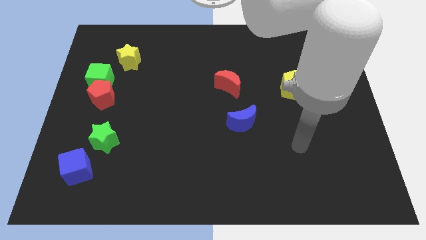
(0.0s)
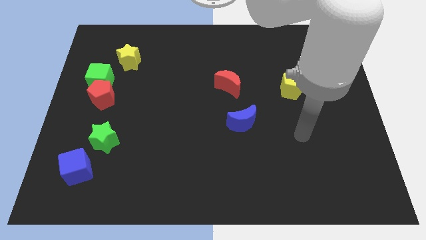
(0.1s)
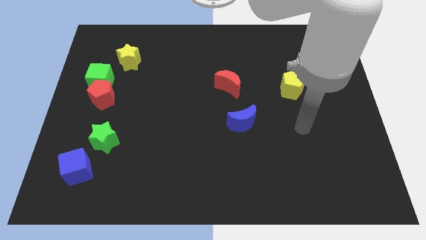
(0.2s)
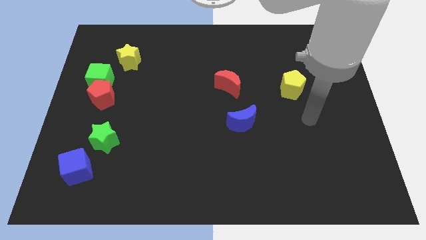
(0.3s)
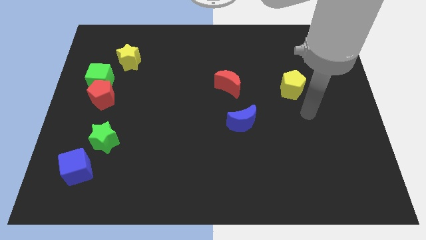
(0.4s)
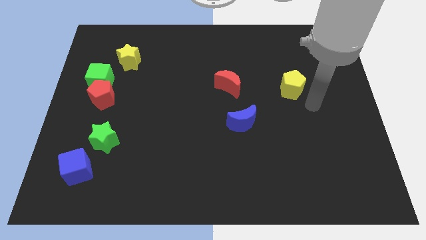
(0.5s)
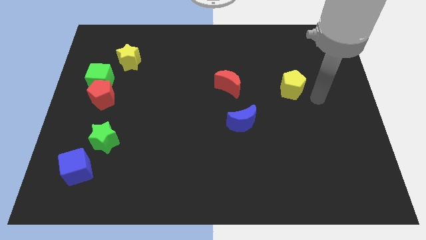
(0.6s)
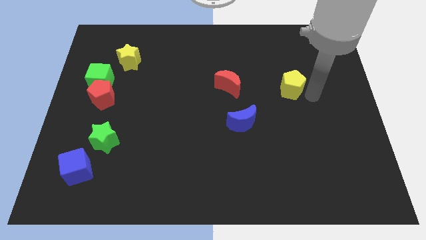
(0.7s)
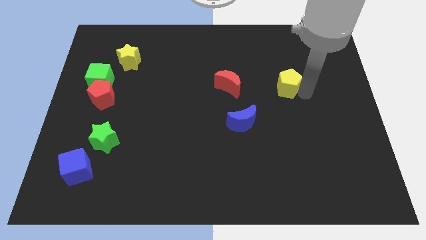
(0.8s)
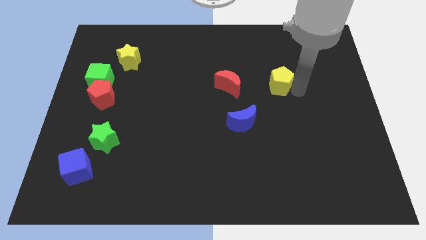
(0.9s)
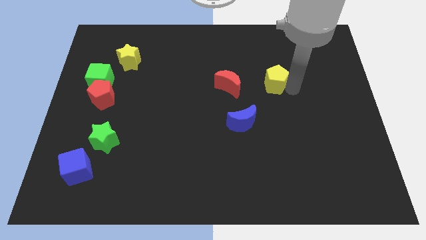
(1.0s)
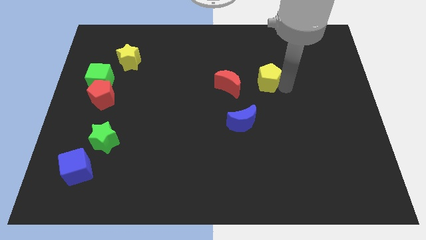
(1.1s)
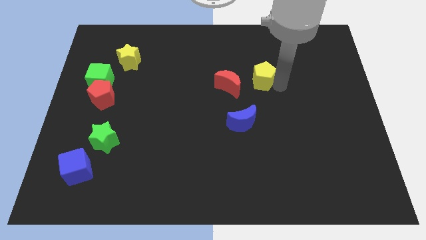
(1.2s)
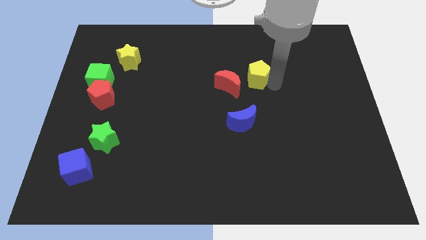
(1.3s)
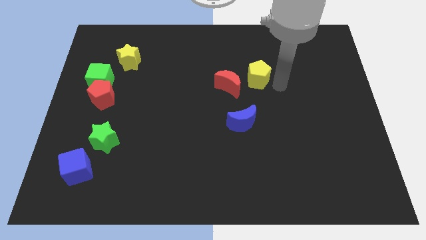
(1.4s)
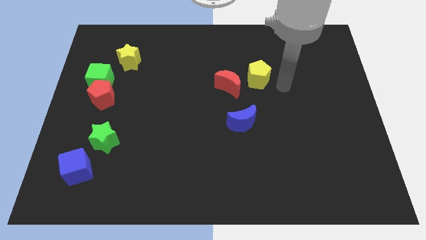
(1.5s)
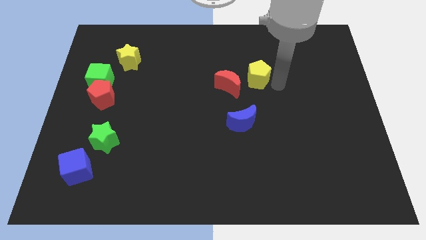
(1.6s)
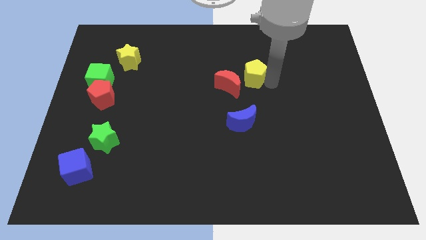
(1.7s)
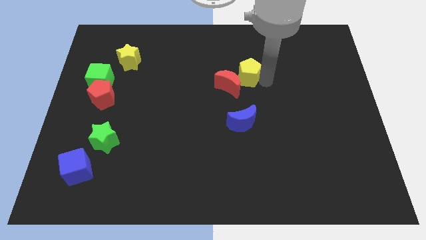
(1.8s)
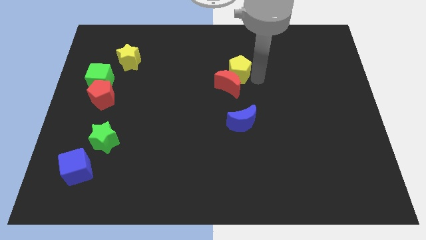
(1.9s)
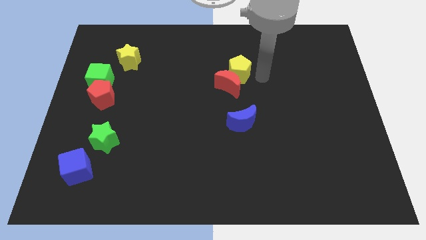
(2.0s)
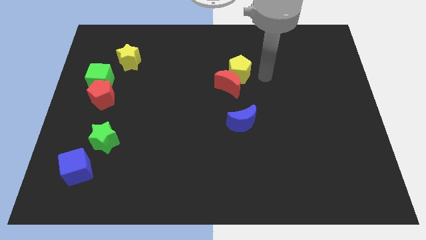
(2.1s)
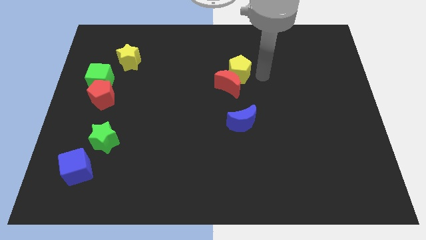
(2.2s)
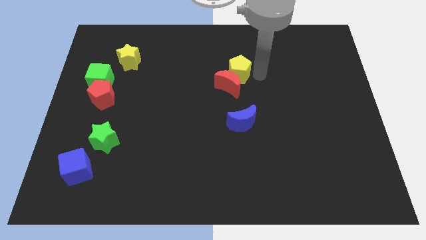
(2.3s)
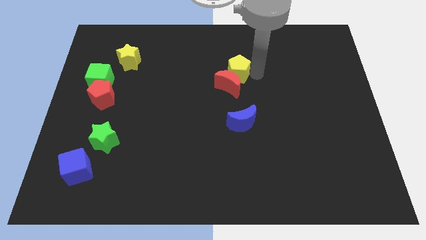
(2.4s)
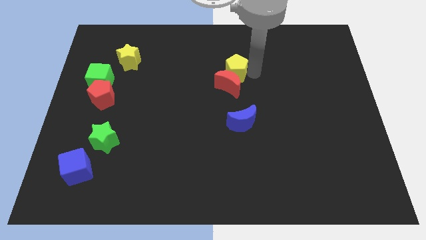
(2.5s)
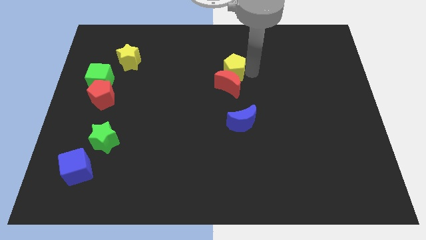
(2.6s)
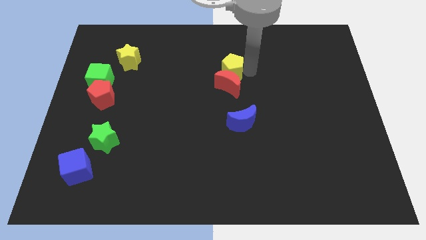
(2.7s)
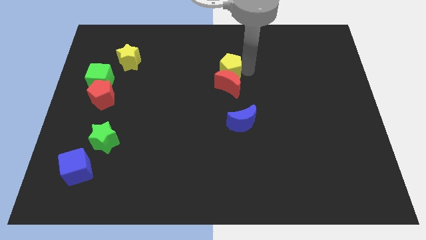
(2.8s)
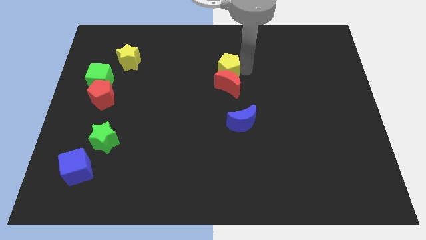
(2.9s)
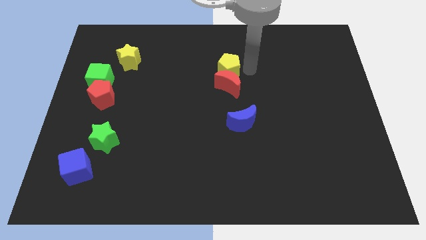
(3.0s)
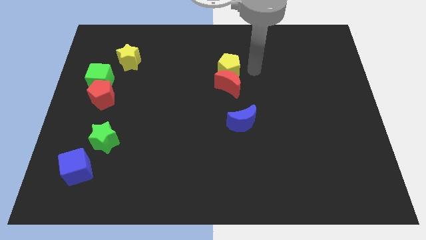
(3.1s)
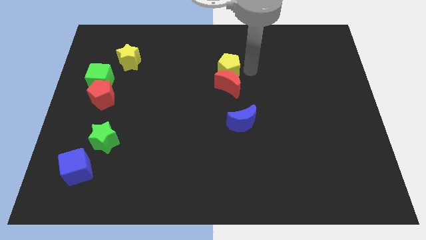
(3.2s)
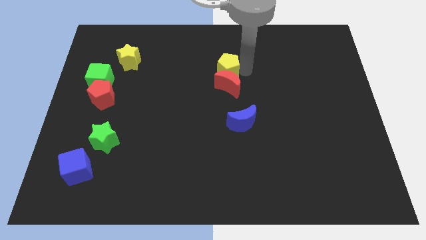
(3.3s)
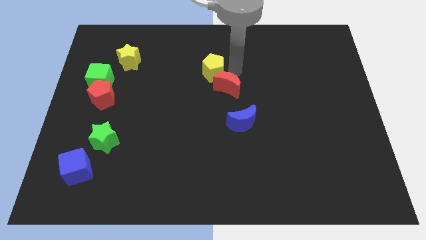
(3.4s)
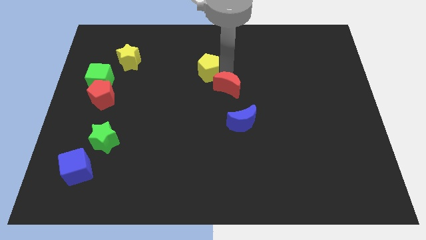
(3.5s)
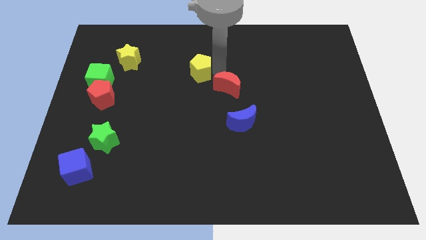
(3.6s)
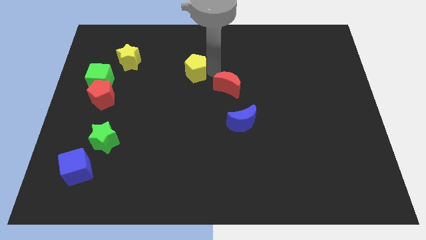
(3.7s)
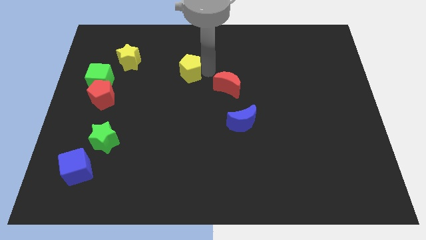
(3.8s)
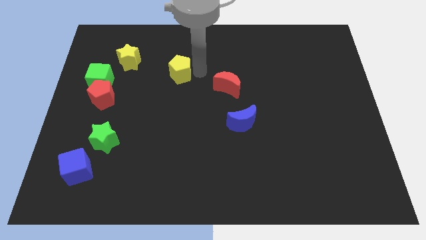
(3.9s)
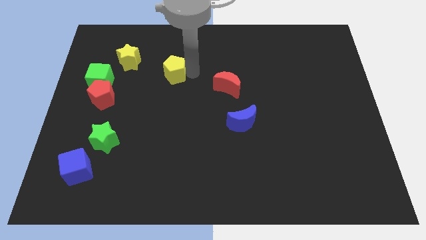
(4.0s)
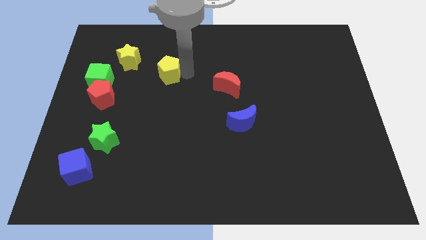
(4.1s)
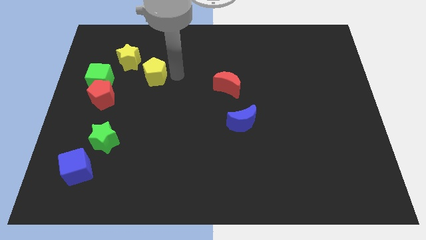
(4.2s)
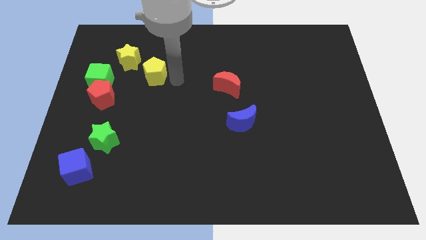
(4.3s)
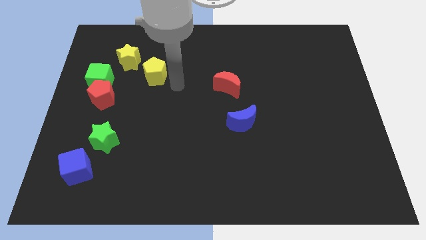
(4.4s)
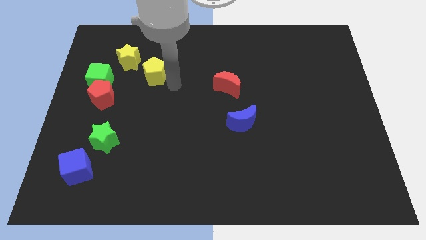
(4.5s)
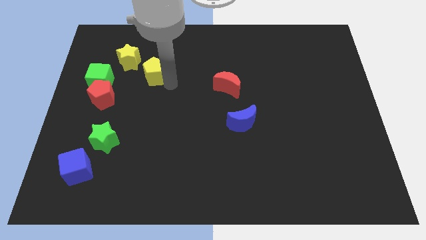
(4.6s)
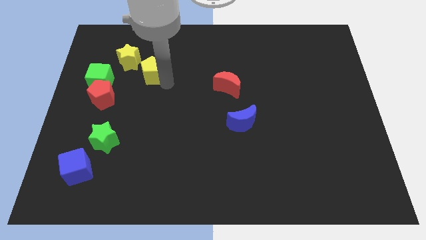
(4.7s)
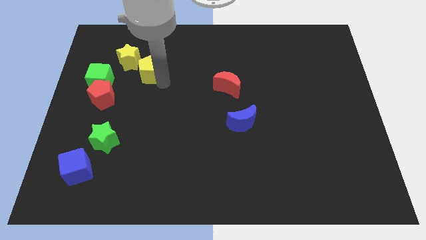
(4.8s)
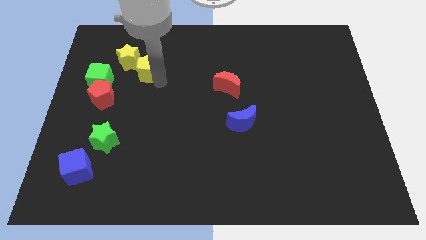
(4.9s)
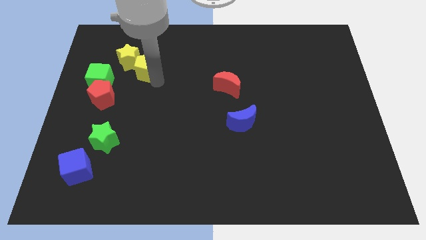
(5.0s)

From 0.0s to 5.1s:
slide the yellow pentagon close to the yellow star

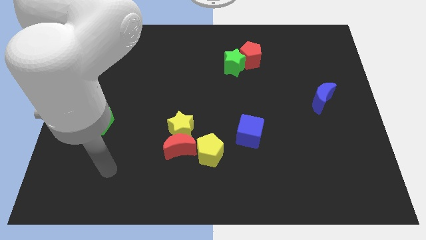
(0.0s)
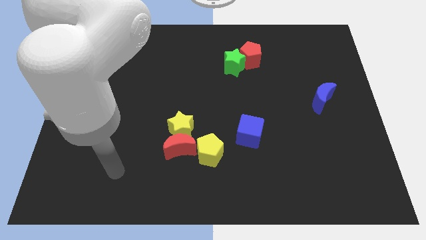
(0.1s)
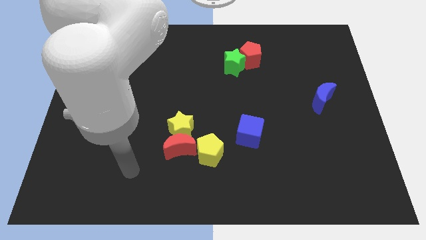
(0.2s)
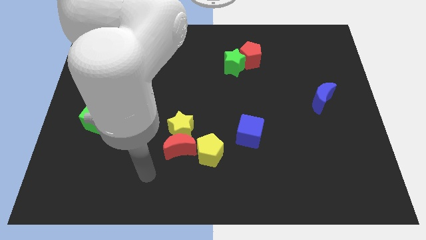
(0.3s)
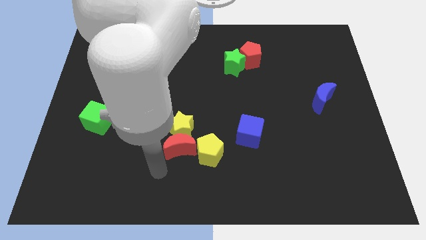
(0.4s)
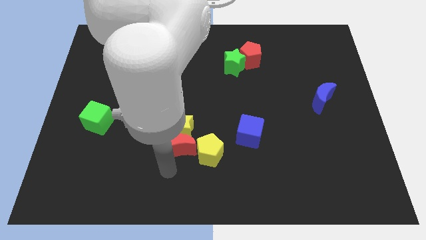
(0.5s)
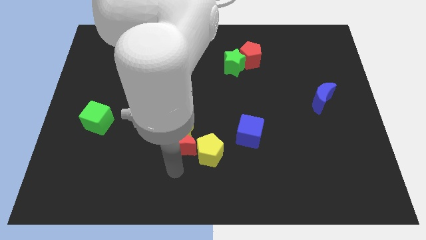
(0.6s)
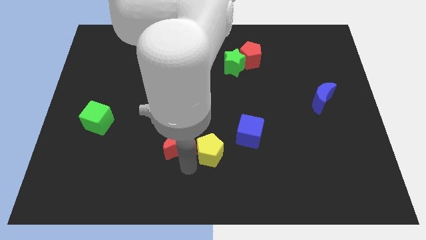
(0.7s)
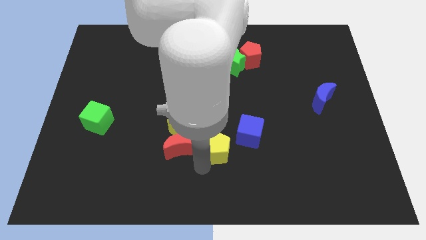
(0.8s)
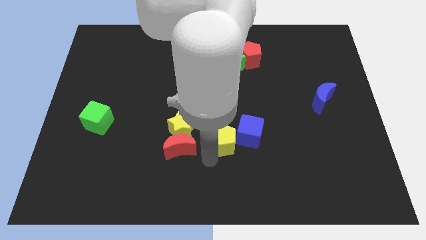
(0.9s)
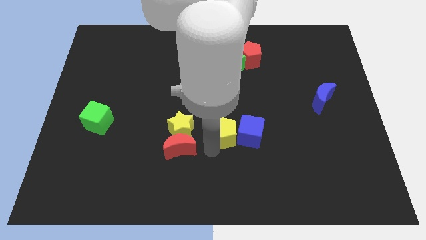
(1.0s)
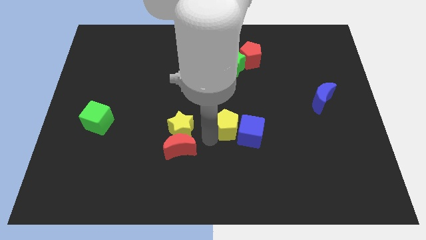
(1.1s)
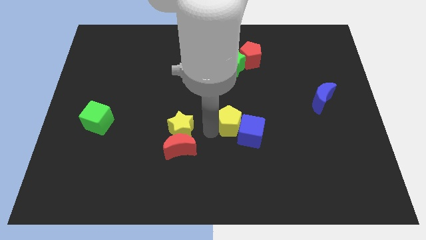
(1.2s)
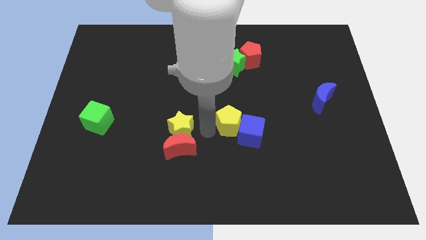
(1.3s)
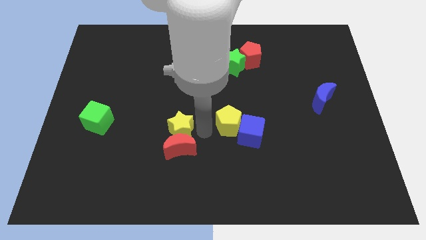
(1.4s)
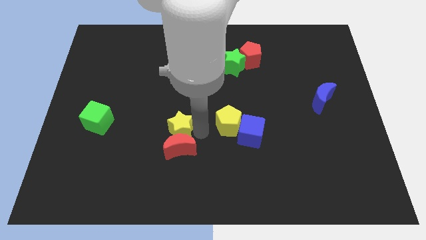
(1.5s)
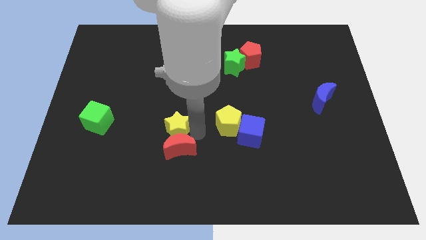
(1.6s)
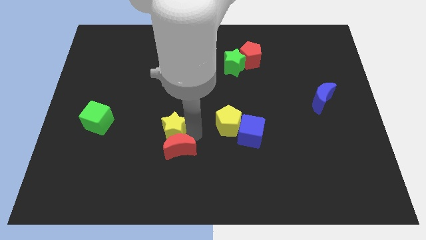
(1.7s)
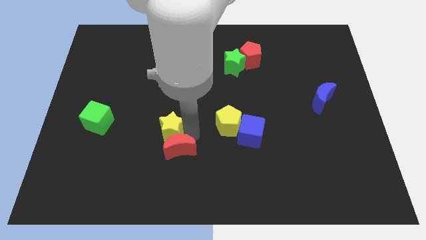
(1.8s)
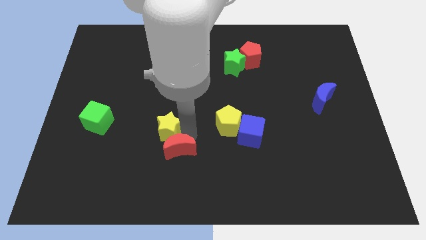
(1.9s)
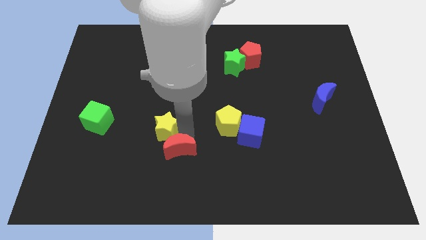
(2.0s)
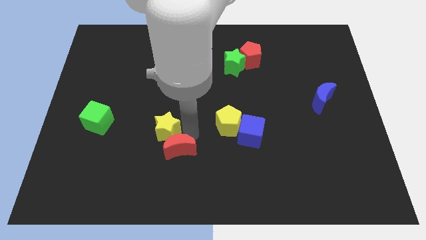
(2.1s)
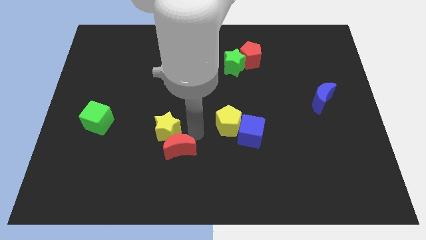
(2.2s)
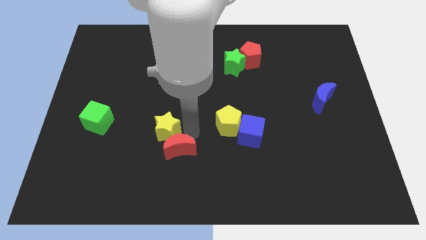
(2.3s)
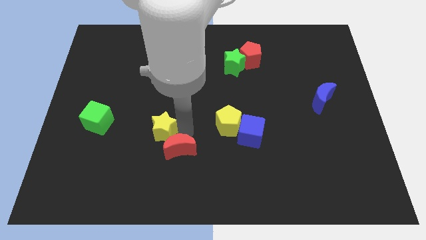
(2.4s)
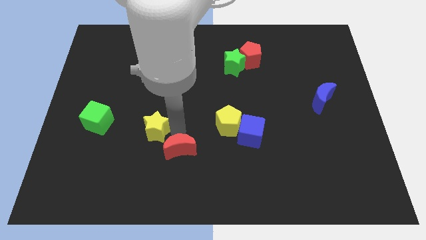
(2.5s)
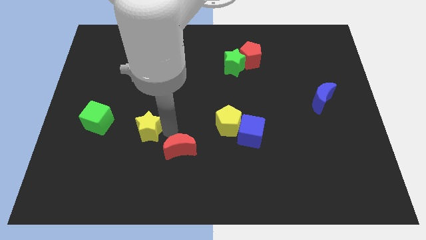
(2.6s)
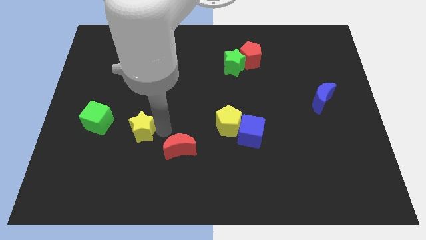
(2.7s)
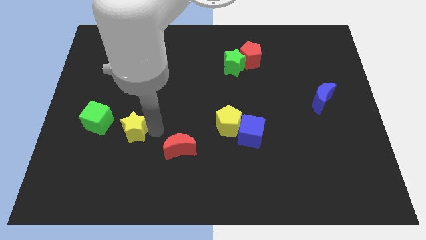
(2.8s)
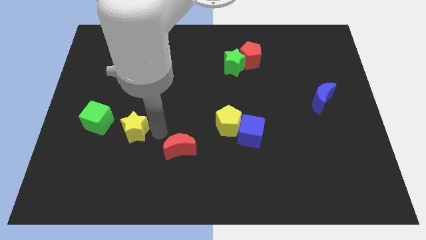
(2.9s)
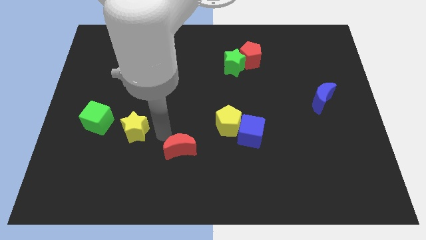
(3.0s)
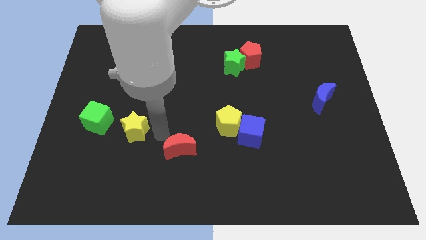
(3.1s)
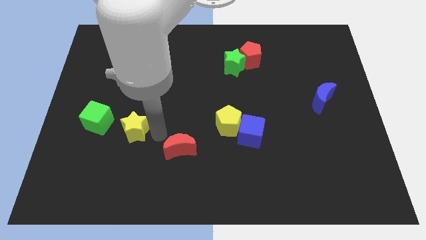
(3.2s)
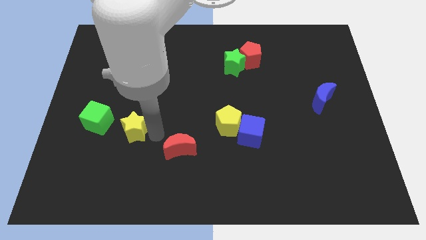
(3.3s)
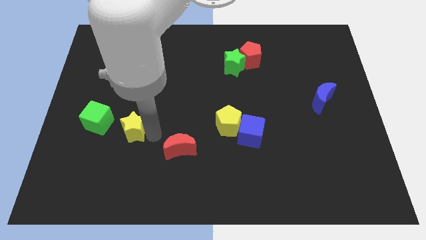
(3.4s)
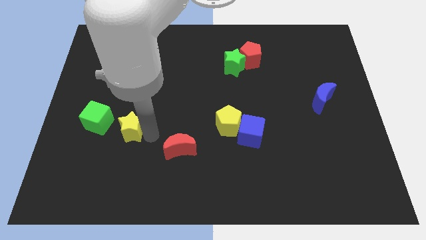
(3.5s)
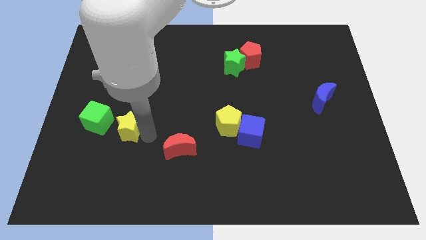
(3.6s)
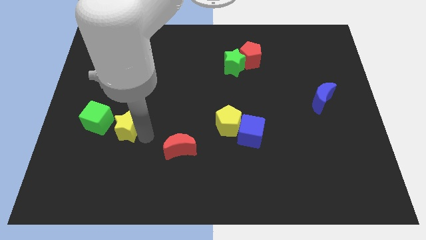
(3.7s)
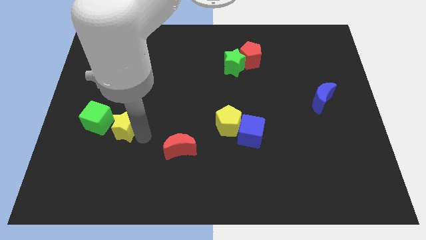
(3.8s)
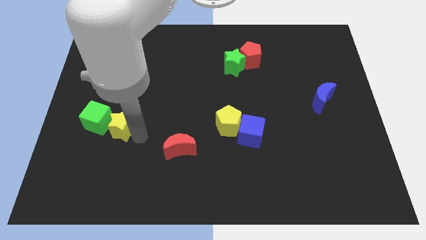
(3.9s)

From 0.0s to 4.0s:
put the yellow star close to the green cube
